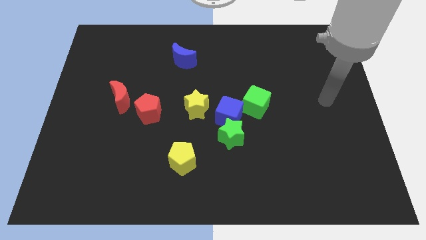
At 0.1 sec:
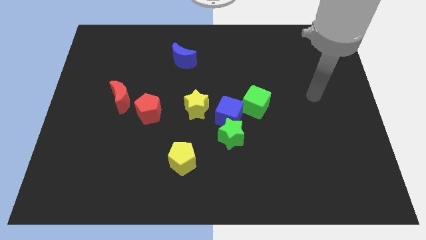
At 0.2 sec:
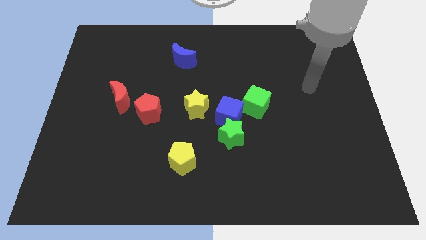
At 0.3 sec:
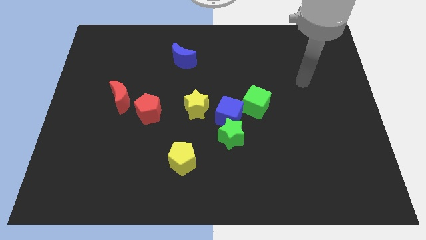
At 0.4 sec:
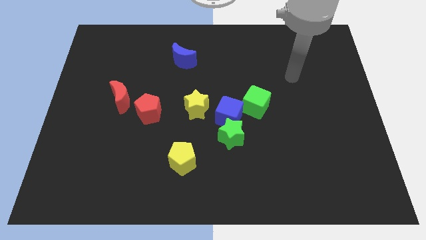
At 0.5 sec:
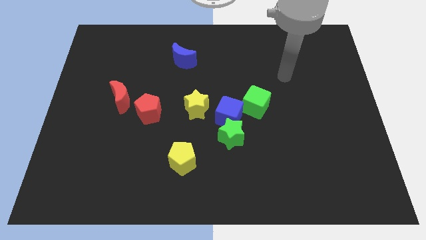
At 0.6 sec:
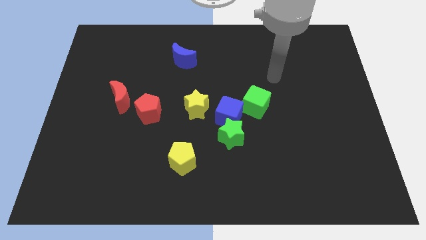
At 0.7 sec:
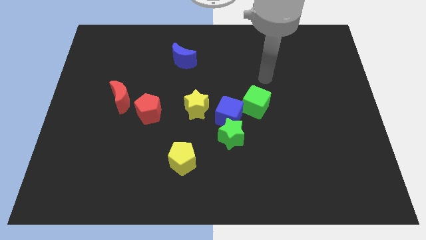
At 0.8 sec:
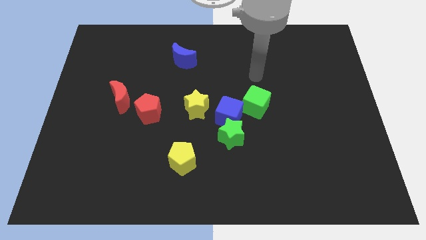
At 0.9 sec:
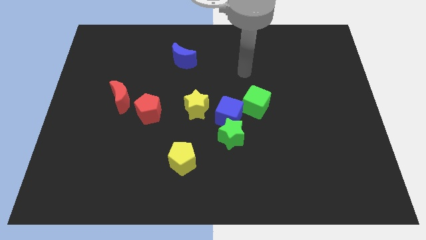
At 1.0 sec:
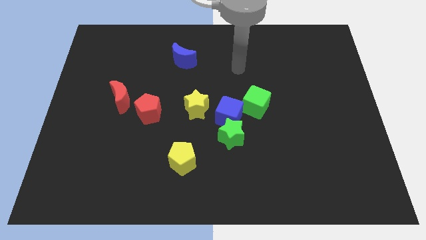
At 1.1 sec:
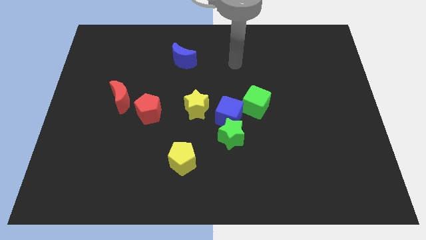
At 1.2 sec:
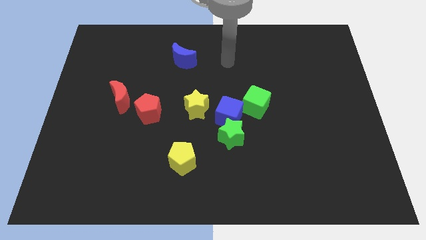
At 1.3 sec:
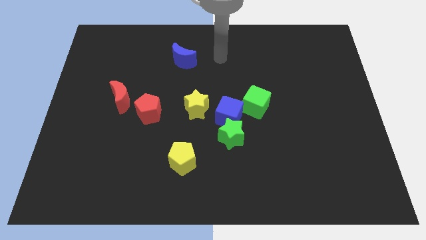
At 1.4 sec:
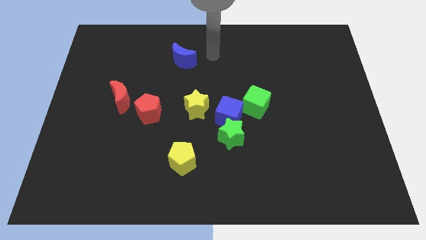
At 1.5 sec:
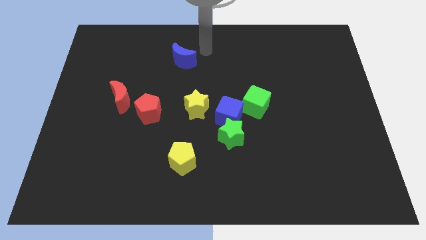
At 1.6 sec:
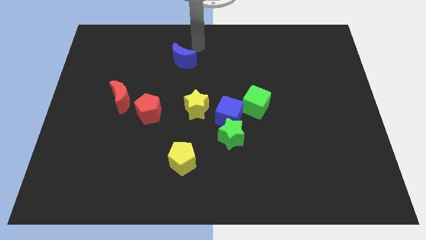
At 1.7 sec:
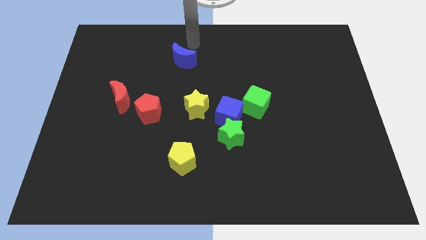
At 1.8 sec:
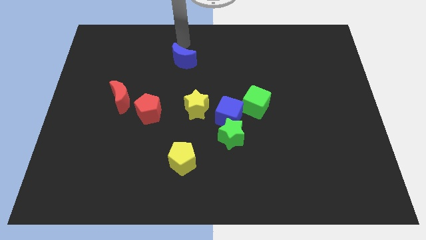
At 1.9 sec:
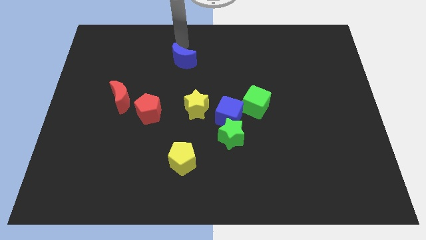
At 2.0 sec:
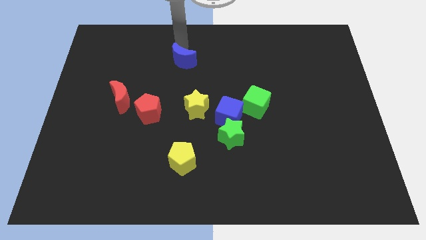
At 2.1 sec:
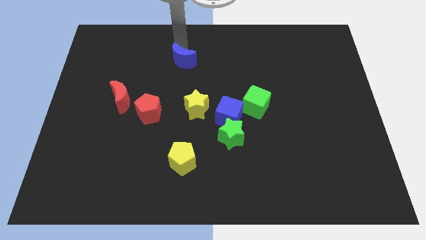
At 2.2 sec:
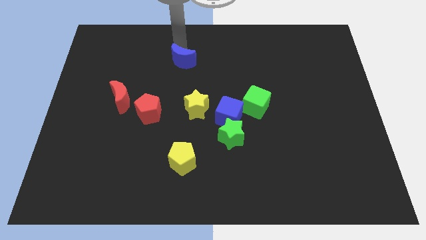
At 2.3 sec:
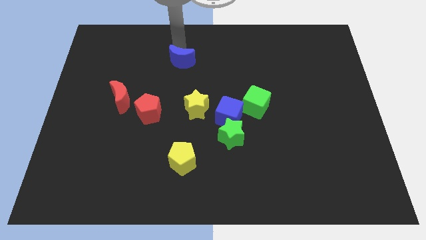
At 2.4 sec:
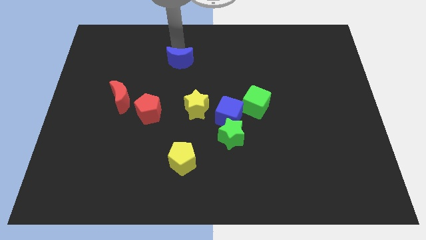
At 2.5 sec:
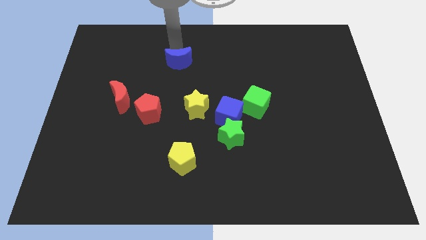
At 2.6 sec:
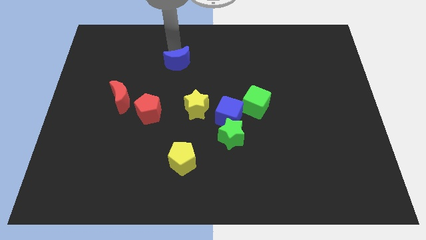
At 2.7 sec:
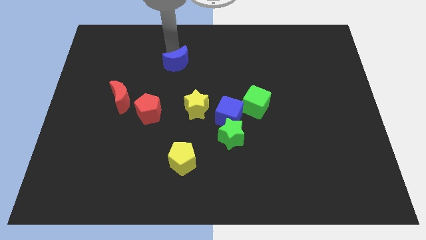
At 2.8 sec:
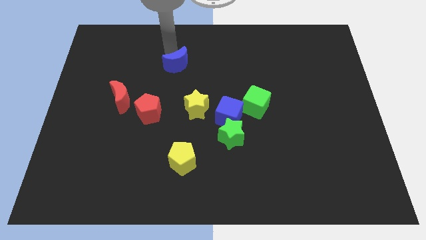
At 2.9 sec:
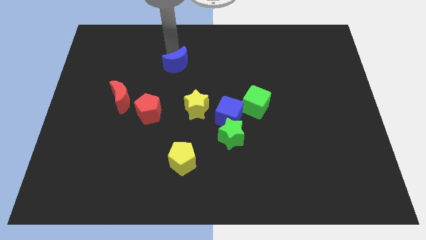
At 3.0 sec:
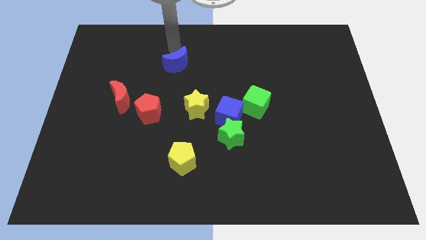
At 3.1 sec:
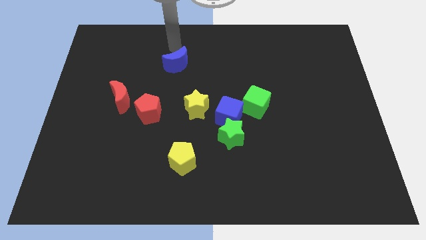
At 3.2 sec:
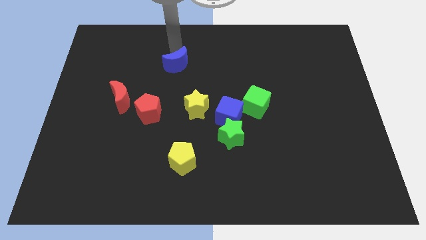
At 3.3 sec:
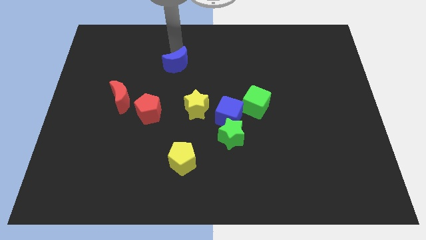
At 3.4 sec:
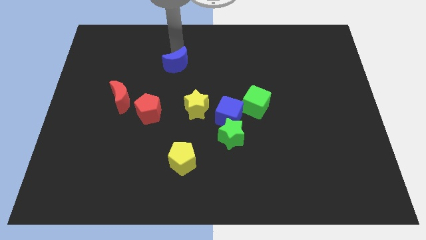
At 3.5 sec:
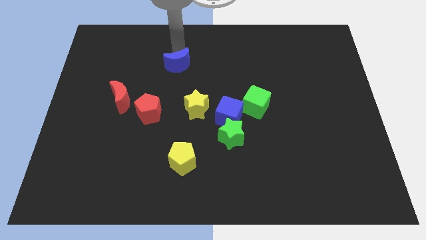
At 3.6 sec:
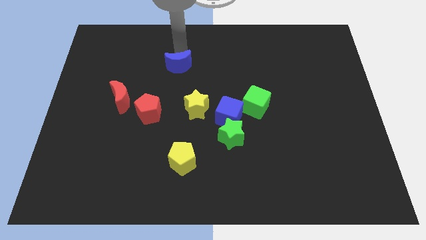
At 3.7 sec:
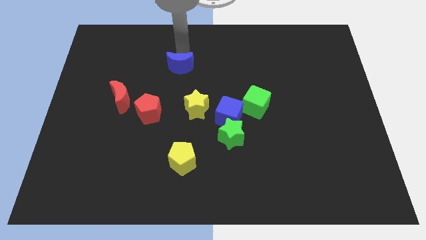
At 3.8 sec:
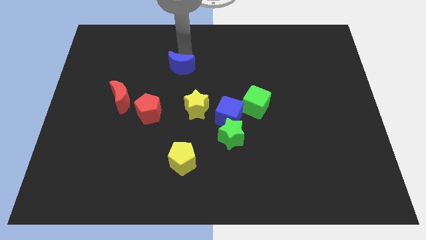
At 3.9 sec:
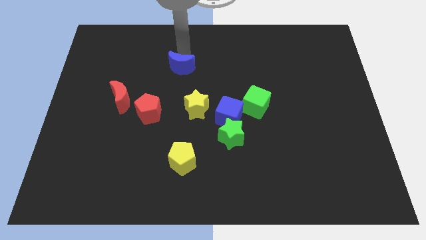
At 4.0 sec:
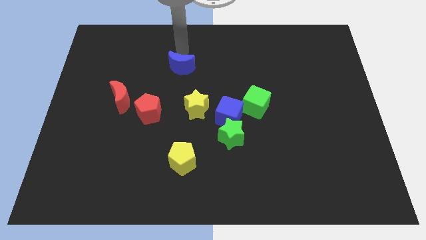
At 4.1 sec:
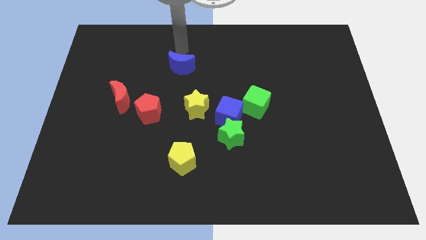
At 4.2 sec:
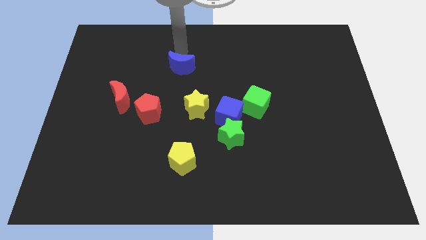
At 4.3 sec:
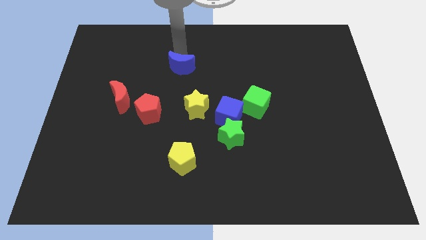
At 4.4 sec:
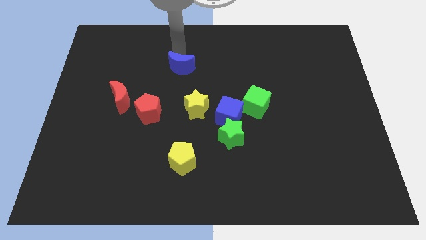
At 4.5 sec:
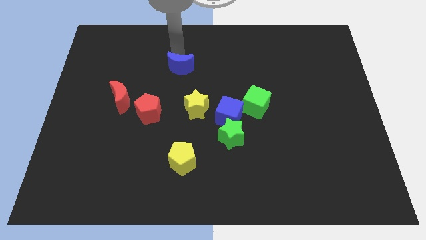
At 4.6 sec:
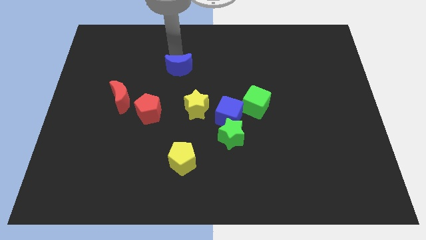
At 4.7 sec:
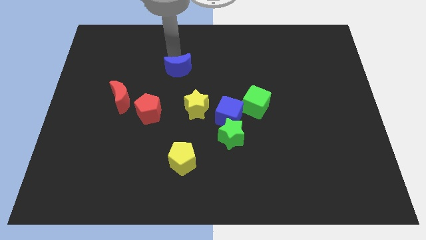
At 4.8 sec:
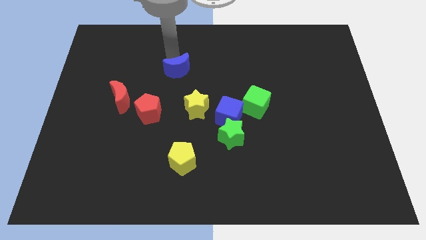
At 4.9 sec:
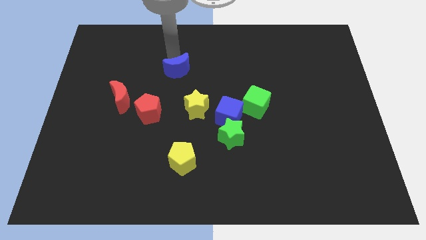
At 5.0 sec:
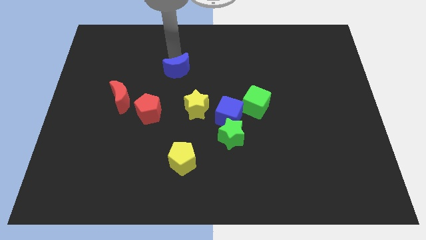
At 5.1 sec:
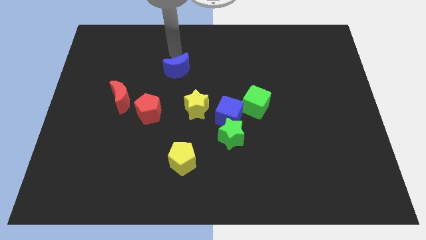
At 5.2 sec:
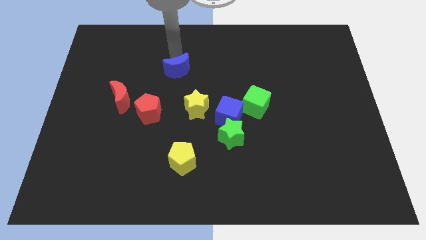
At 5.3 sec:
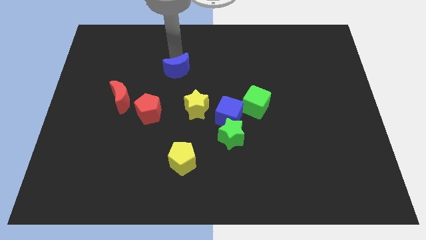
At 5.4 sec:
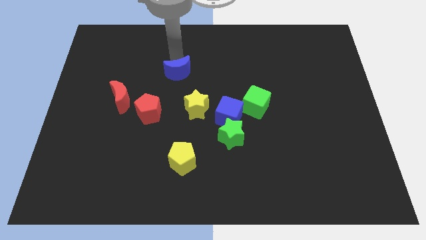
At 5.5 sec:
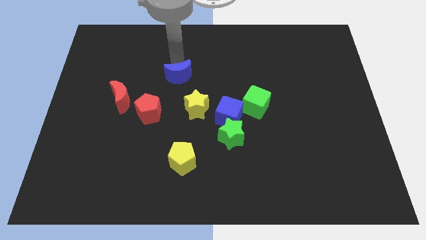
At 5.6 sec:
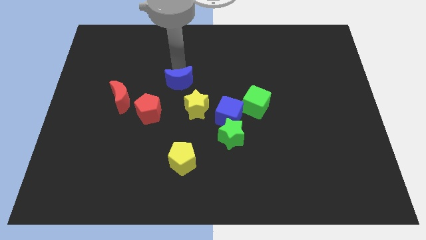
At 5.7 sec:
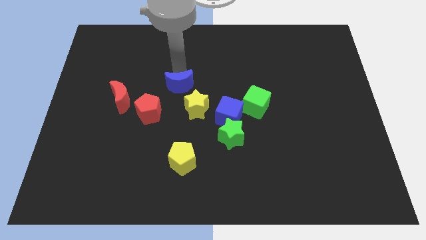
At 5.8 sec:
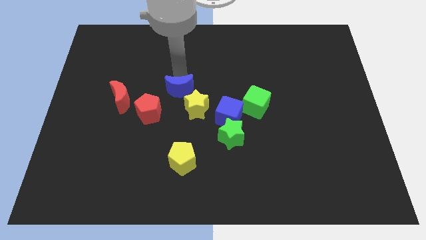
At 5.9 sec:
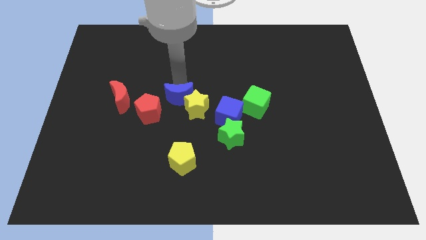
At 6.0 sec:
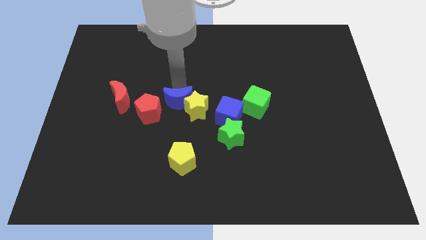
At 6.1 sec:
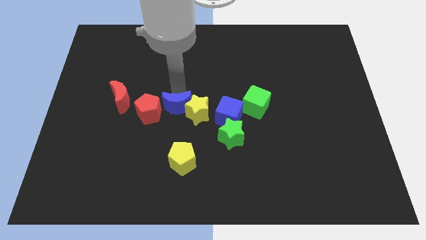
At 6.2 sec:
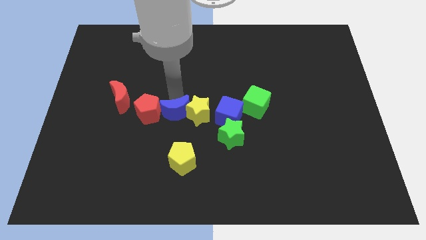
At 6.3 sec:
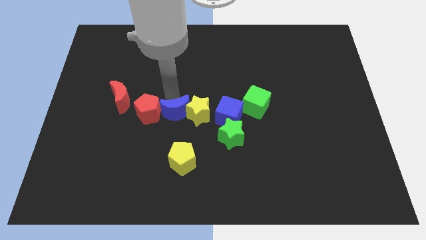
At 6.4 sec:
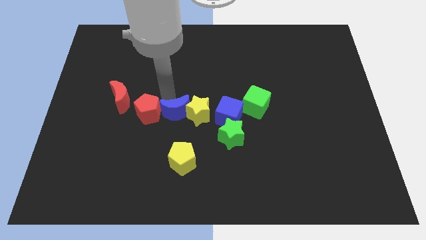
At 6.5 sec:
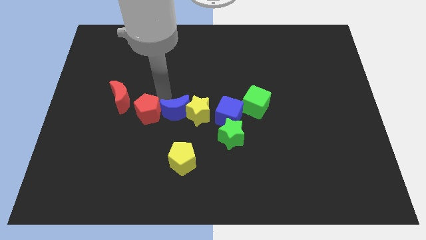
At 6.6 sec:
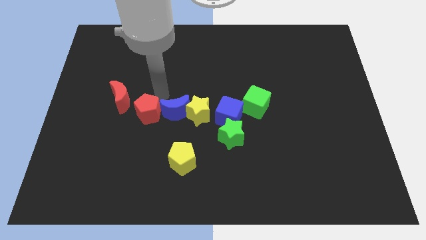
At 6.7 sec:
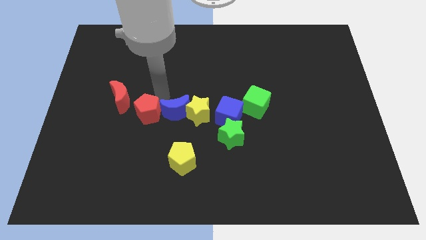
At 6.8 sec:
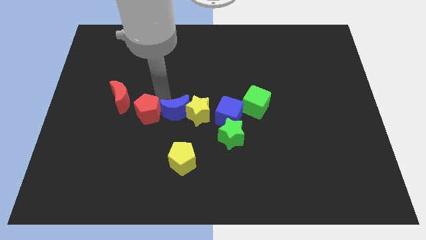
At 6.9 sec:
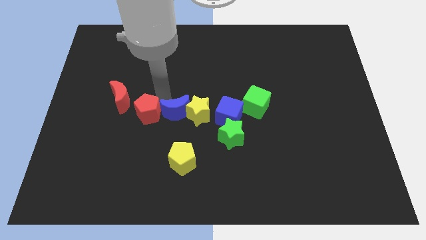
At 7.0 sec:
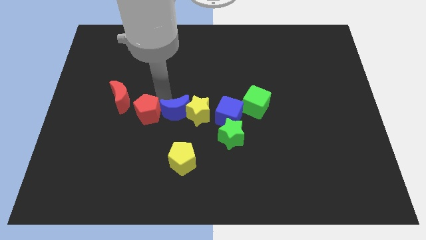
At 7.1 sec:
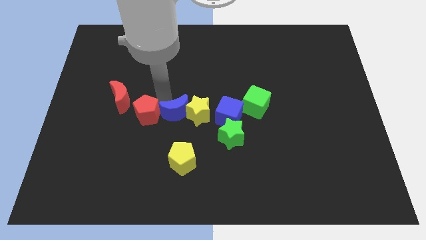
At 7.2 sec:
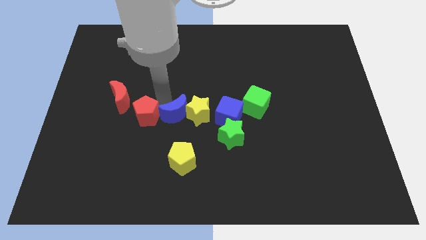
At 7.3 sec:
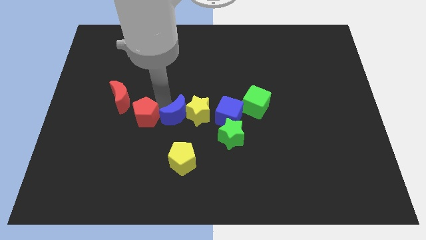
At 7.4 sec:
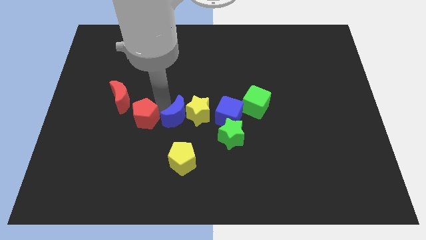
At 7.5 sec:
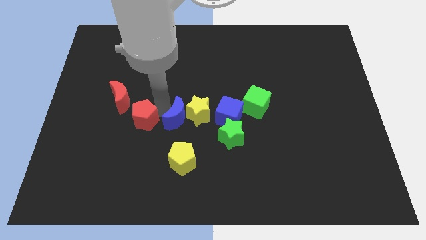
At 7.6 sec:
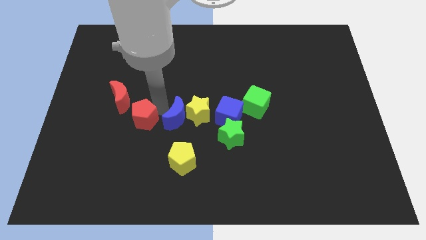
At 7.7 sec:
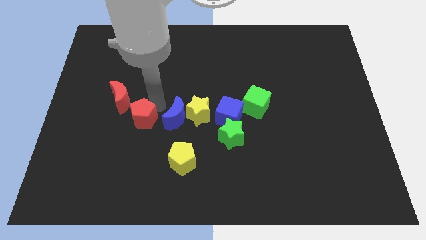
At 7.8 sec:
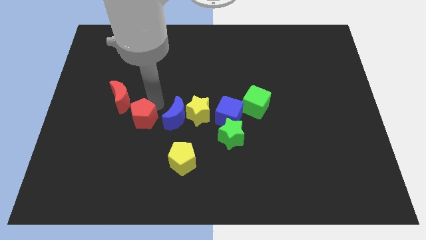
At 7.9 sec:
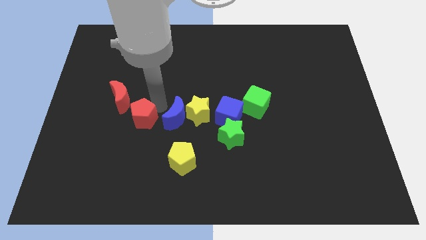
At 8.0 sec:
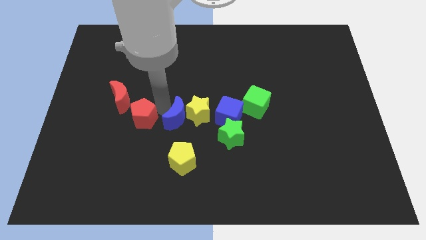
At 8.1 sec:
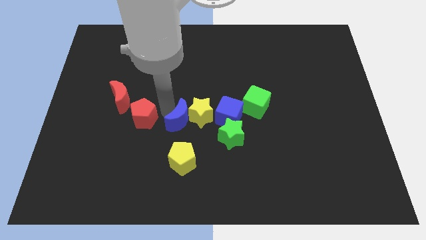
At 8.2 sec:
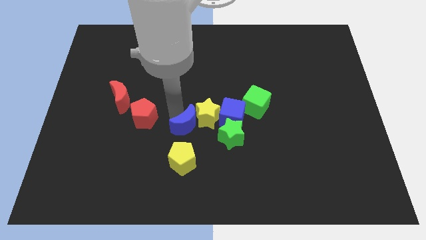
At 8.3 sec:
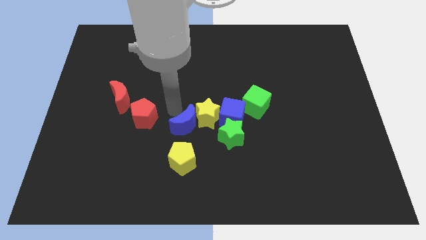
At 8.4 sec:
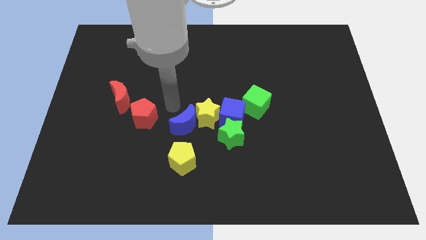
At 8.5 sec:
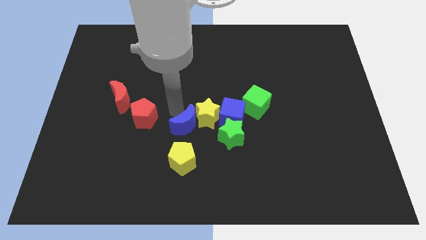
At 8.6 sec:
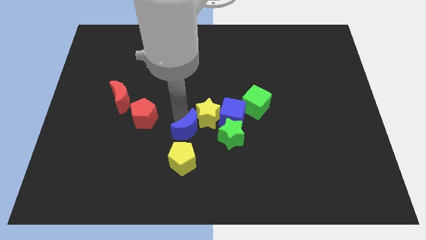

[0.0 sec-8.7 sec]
move the blue moon to the bottom of the yellow star
